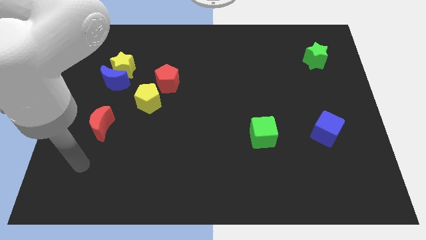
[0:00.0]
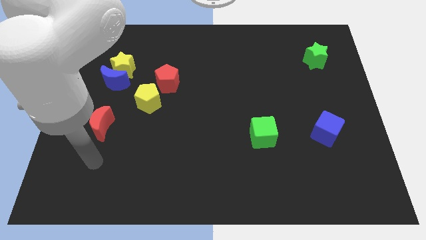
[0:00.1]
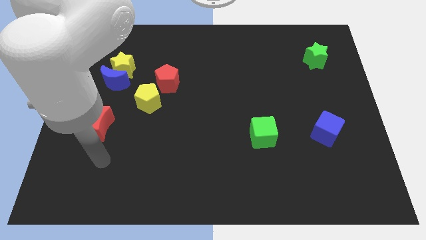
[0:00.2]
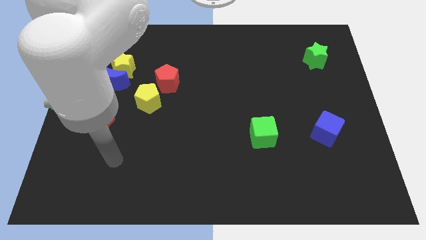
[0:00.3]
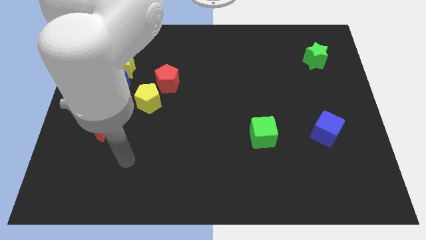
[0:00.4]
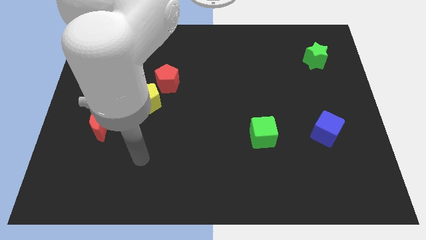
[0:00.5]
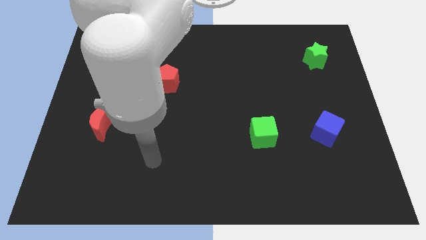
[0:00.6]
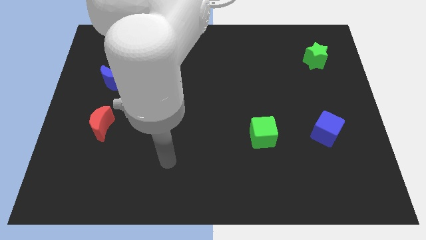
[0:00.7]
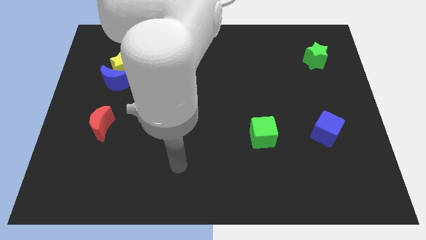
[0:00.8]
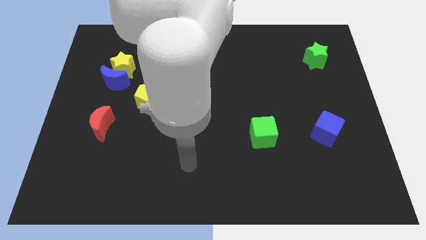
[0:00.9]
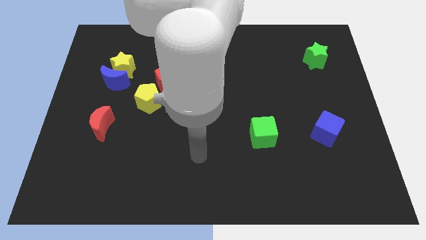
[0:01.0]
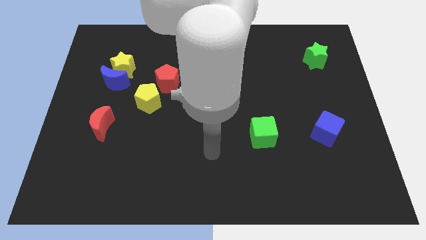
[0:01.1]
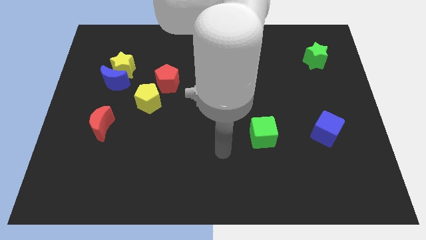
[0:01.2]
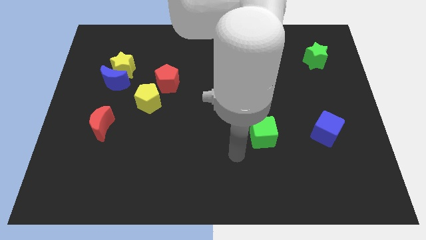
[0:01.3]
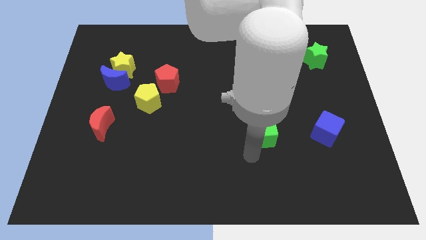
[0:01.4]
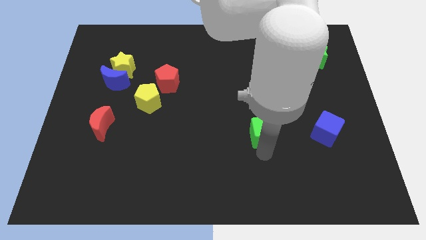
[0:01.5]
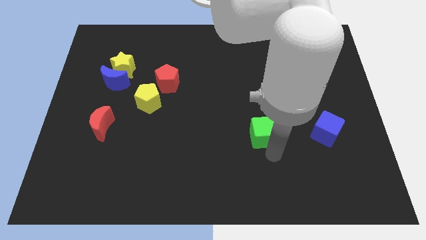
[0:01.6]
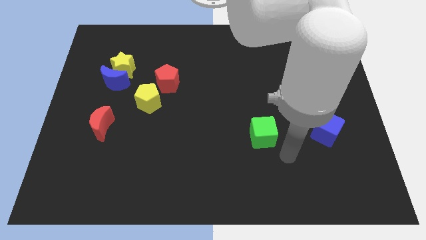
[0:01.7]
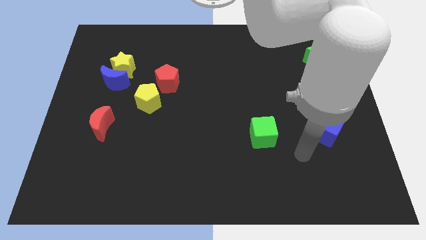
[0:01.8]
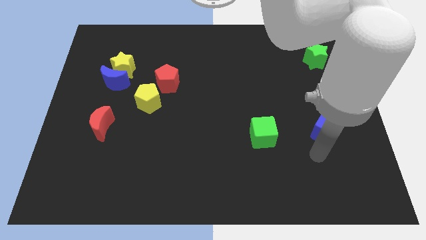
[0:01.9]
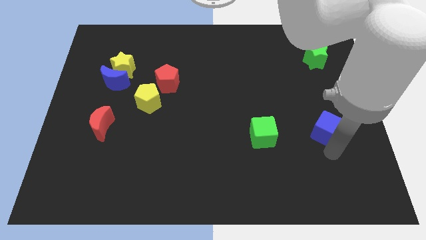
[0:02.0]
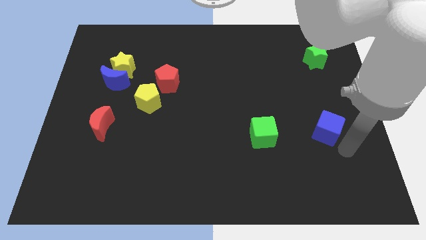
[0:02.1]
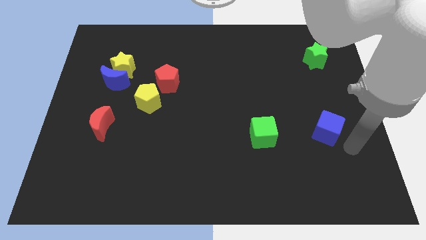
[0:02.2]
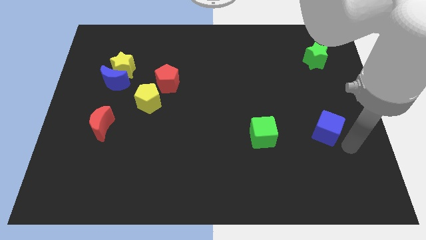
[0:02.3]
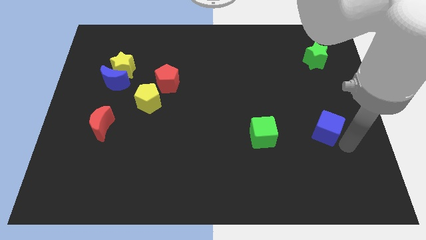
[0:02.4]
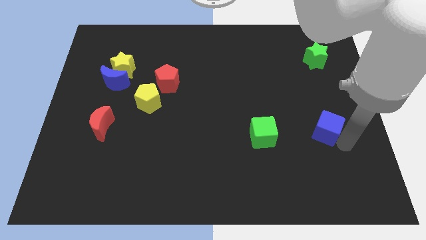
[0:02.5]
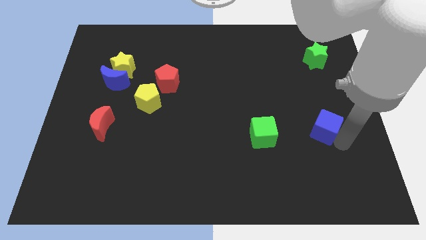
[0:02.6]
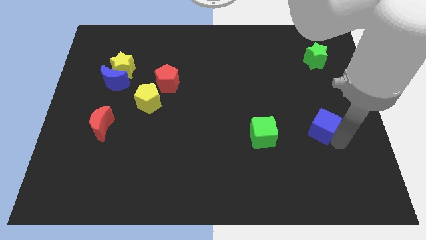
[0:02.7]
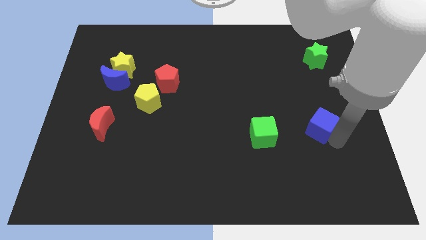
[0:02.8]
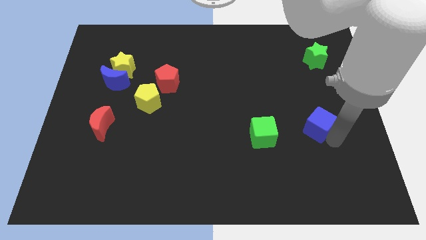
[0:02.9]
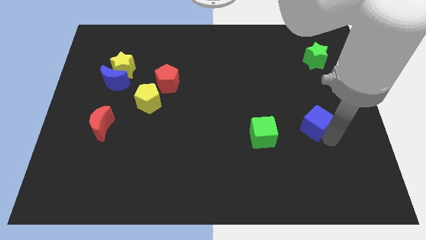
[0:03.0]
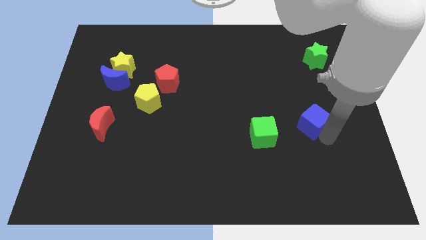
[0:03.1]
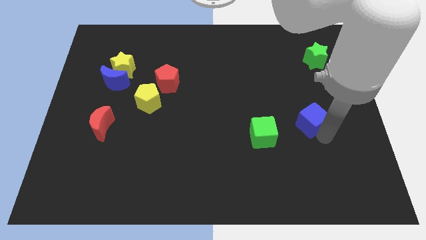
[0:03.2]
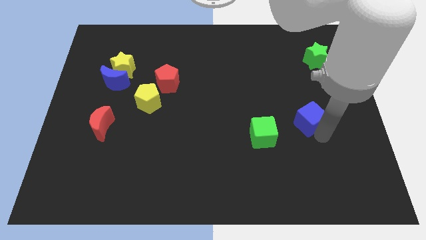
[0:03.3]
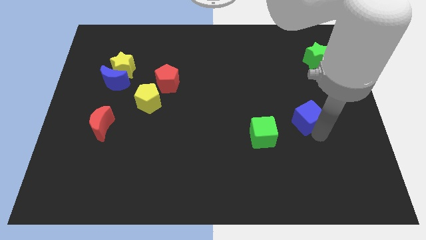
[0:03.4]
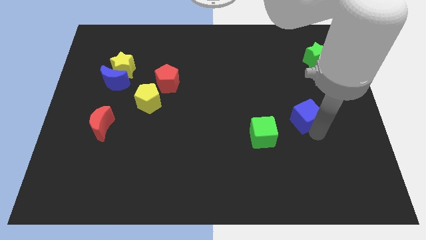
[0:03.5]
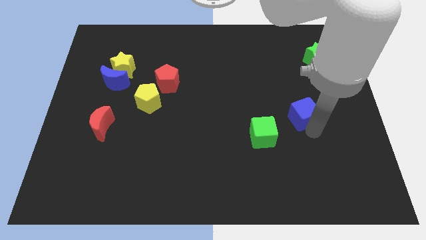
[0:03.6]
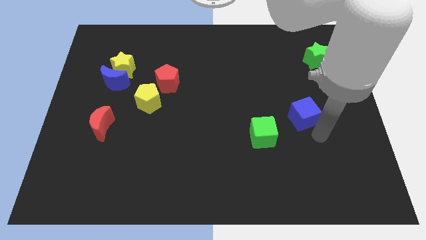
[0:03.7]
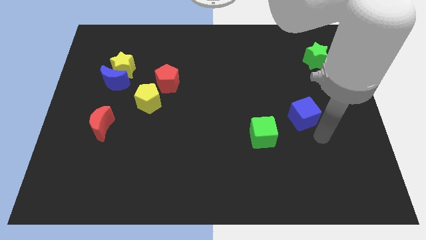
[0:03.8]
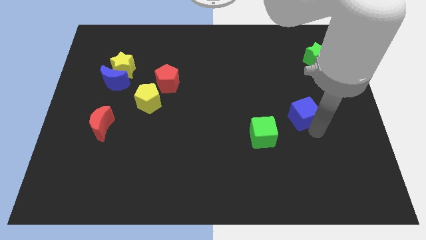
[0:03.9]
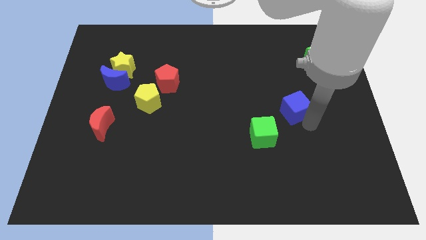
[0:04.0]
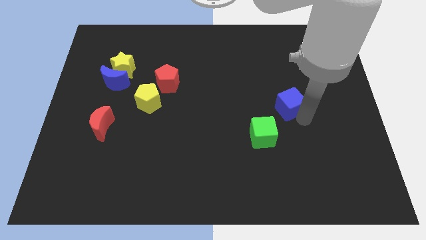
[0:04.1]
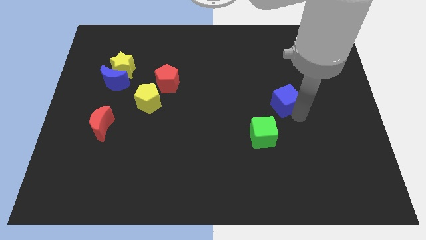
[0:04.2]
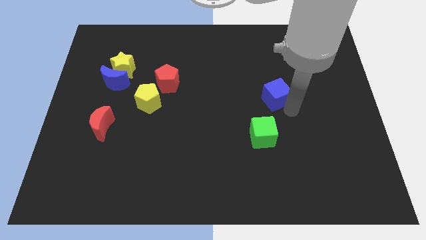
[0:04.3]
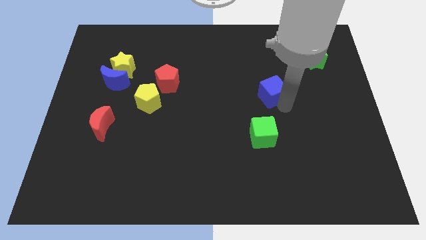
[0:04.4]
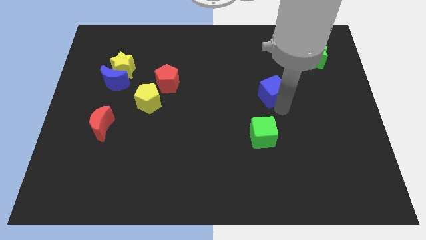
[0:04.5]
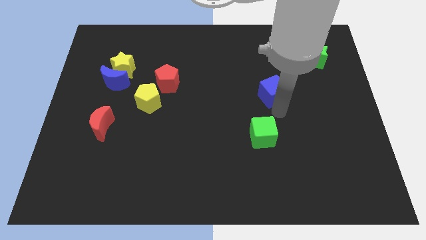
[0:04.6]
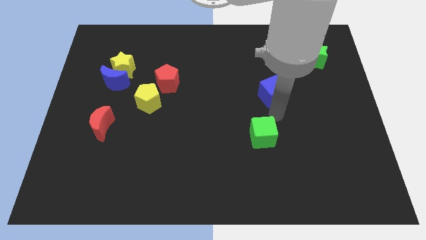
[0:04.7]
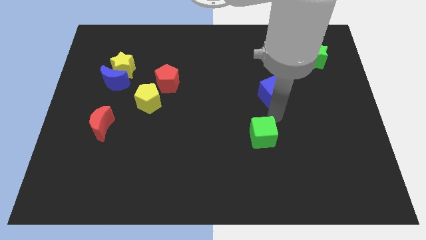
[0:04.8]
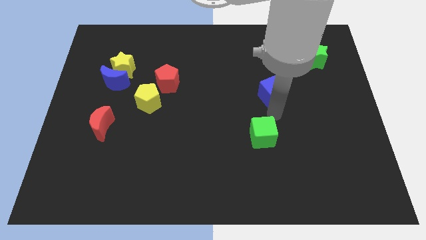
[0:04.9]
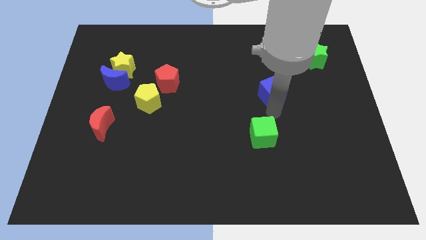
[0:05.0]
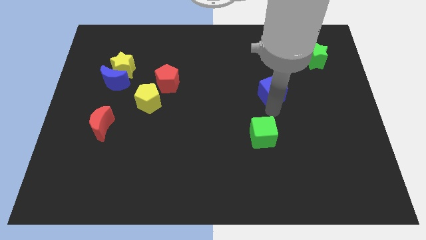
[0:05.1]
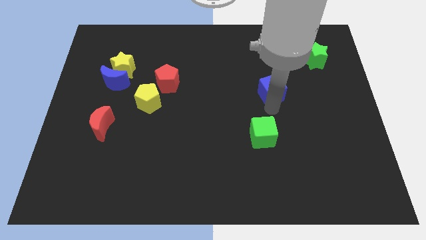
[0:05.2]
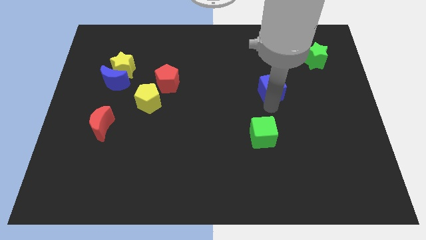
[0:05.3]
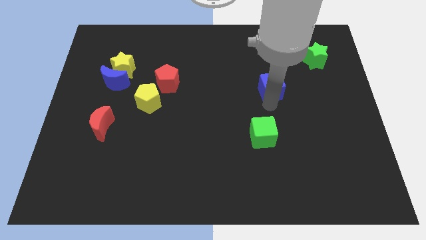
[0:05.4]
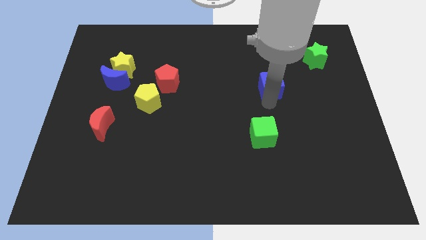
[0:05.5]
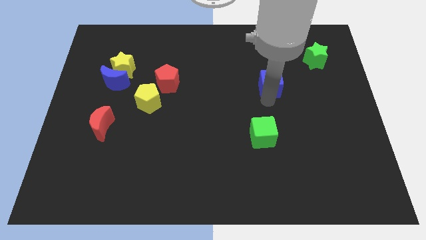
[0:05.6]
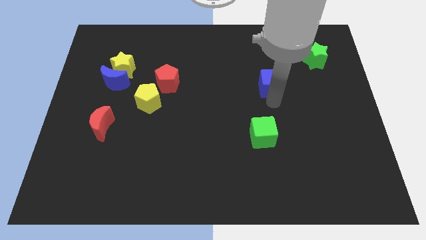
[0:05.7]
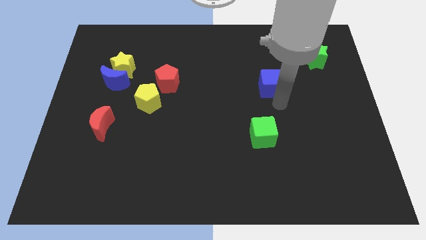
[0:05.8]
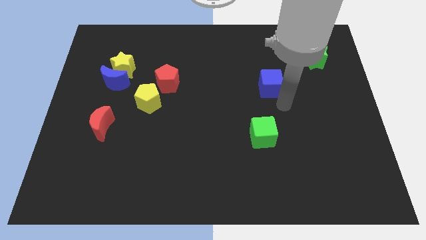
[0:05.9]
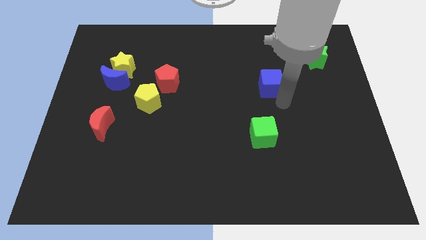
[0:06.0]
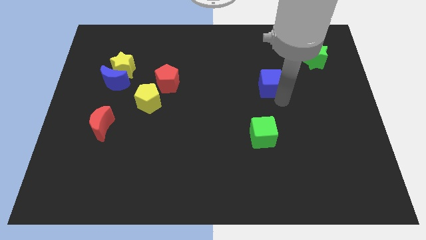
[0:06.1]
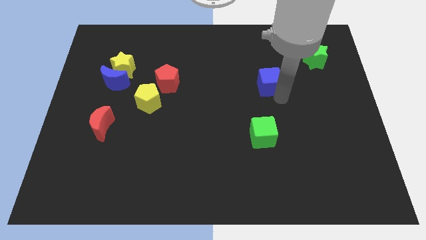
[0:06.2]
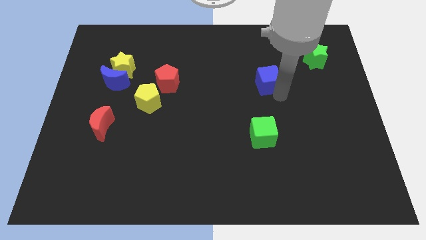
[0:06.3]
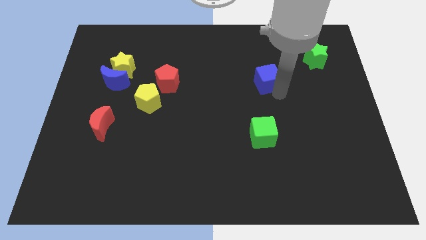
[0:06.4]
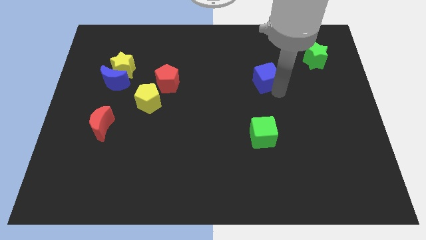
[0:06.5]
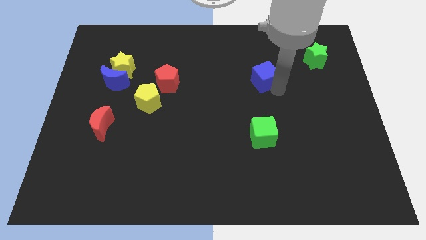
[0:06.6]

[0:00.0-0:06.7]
move the blue cube diagonally up and left

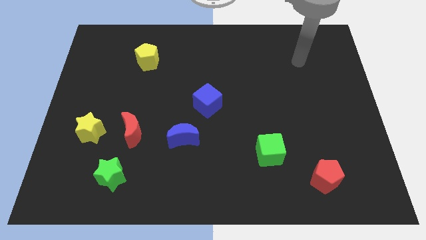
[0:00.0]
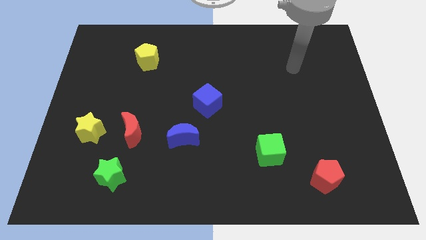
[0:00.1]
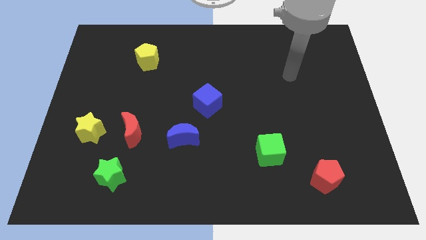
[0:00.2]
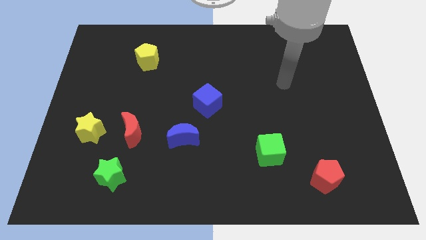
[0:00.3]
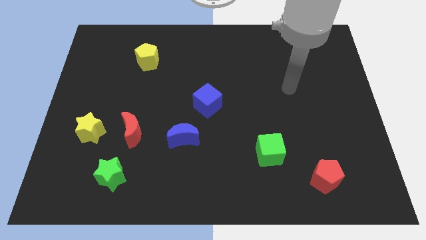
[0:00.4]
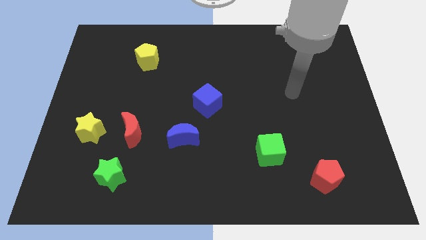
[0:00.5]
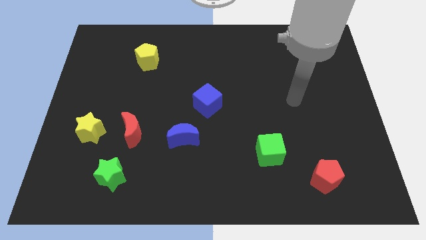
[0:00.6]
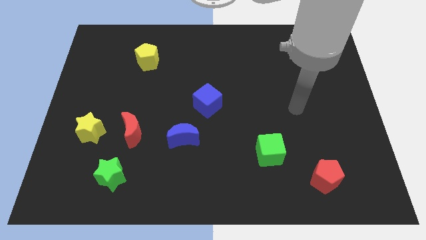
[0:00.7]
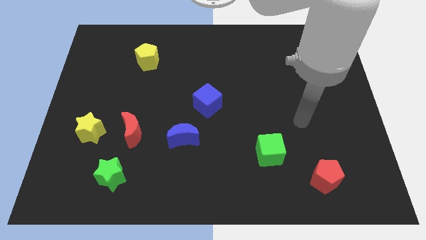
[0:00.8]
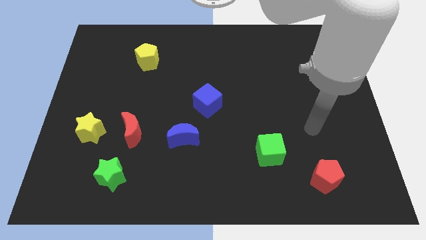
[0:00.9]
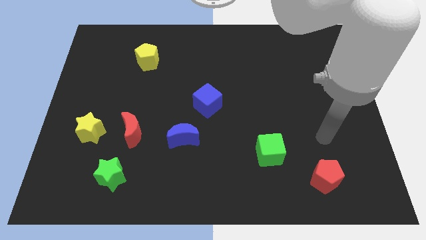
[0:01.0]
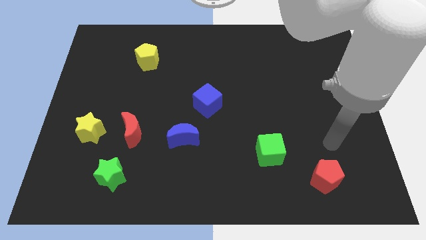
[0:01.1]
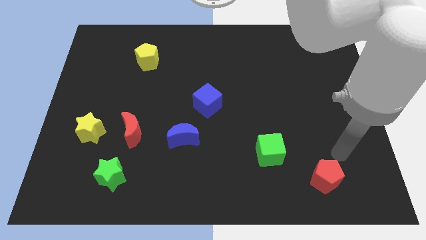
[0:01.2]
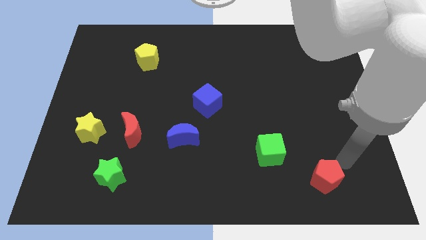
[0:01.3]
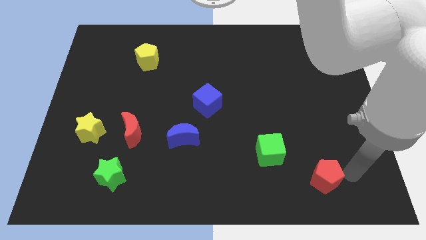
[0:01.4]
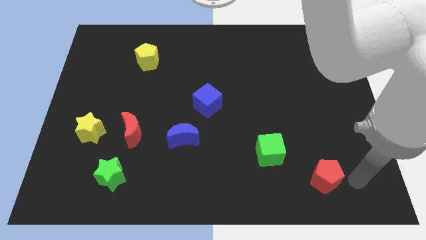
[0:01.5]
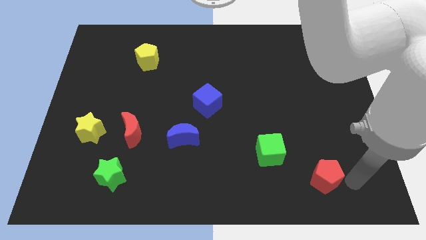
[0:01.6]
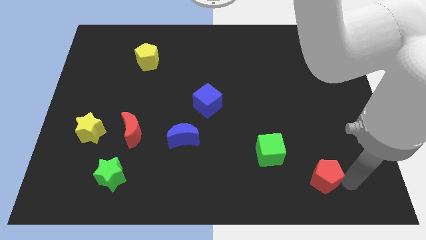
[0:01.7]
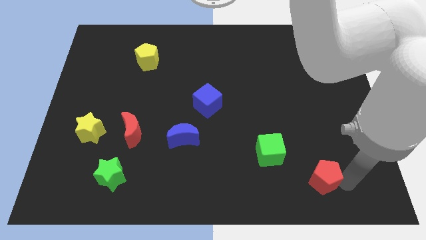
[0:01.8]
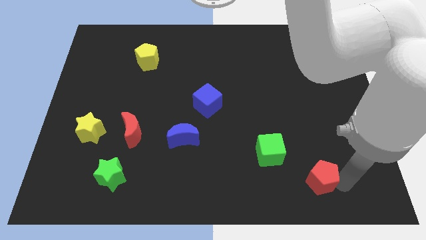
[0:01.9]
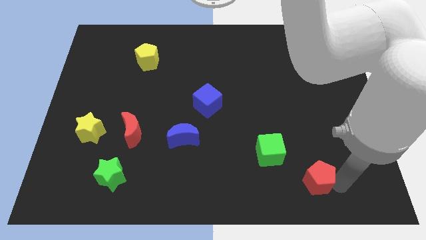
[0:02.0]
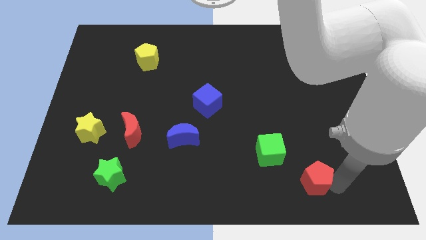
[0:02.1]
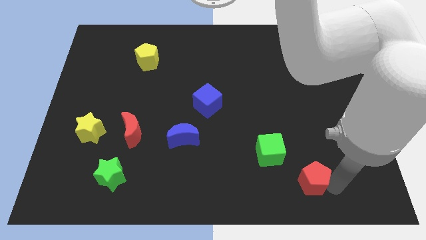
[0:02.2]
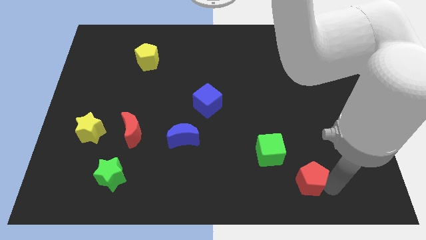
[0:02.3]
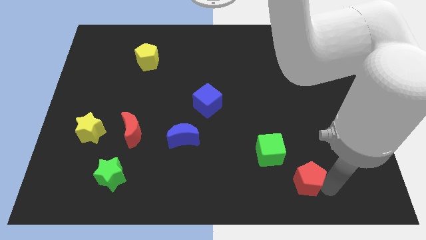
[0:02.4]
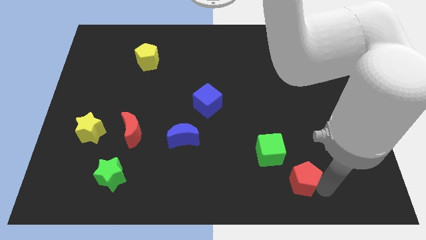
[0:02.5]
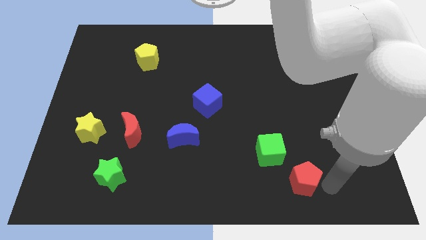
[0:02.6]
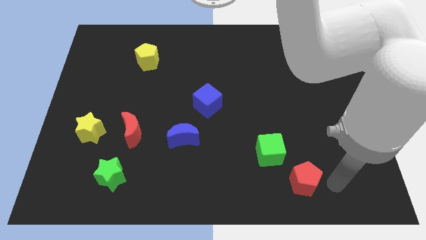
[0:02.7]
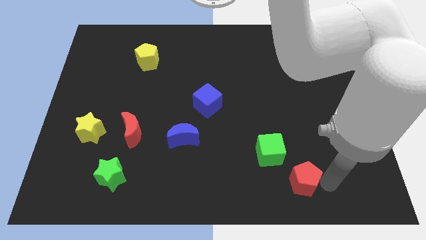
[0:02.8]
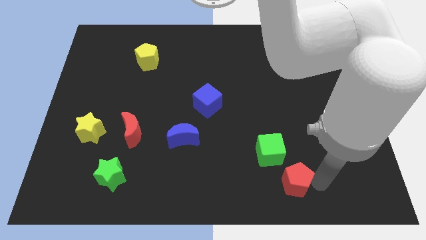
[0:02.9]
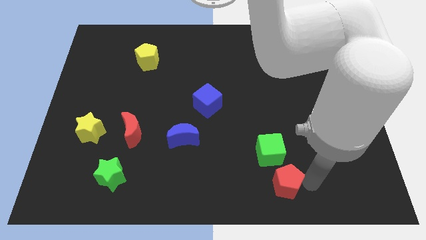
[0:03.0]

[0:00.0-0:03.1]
move the red pentagon a little bit to the left
